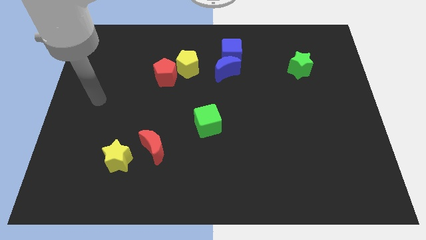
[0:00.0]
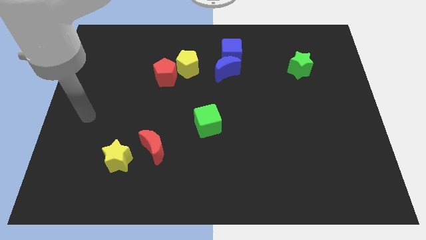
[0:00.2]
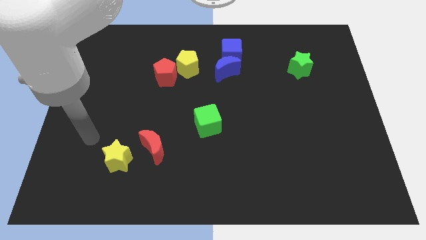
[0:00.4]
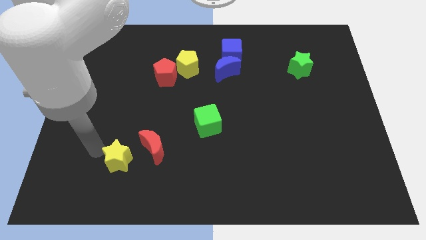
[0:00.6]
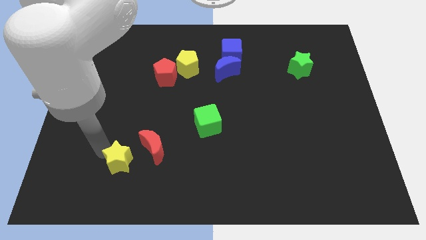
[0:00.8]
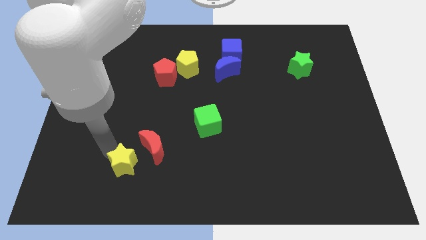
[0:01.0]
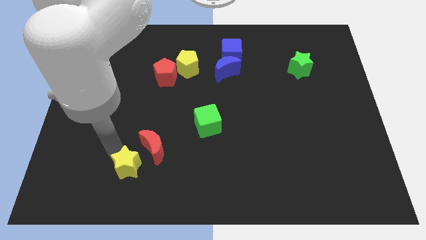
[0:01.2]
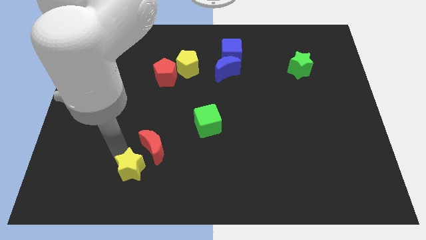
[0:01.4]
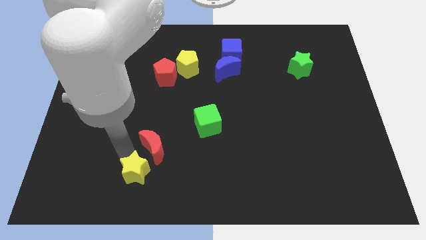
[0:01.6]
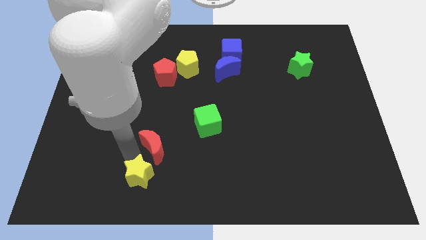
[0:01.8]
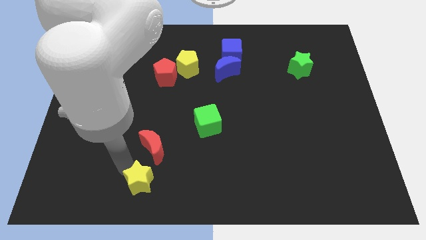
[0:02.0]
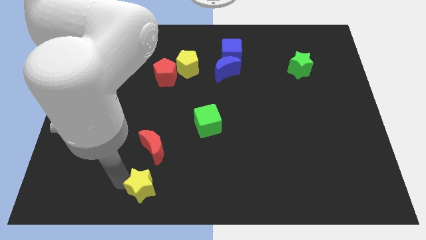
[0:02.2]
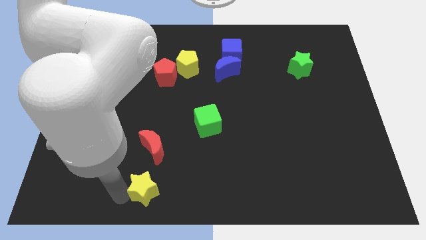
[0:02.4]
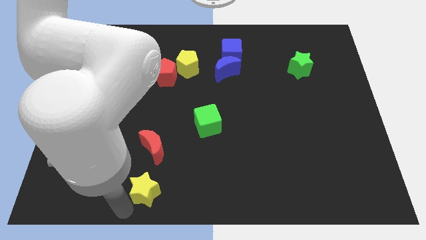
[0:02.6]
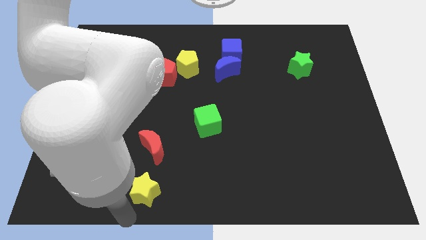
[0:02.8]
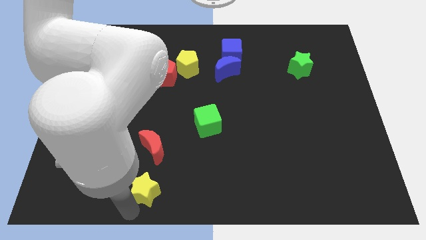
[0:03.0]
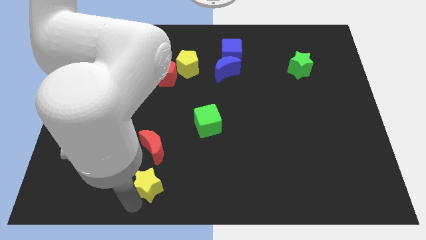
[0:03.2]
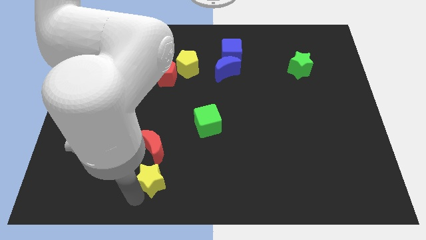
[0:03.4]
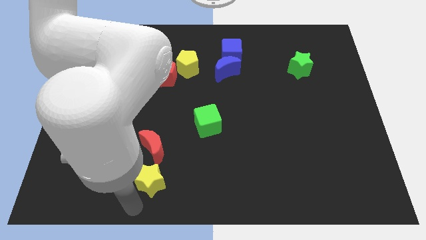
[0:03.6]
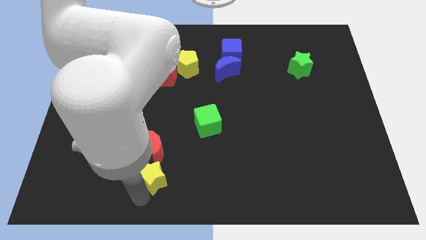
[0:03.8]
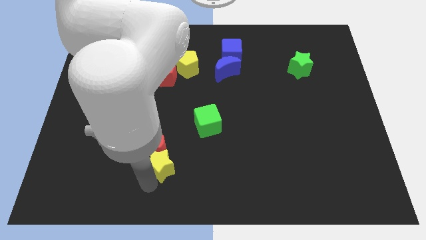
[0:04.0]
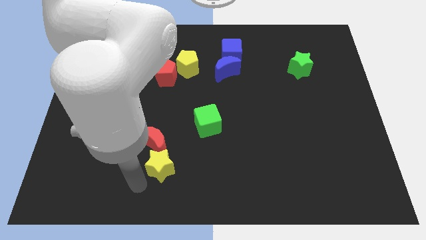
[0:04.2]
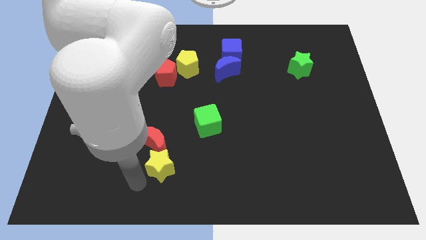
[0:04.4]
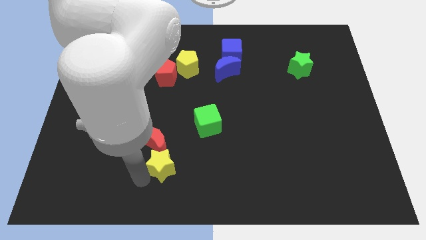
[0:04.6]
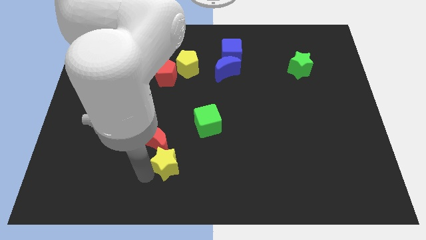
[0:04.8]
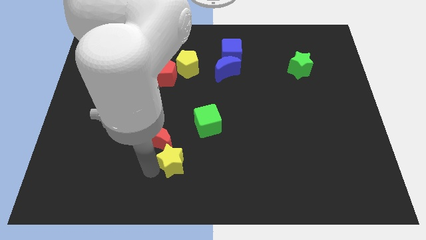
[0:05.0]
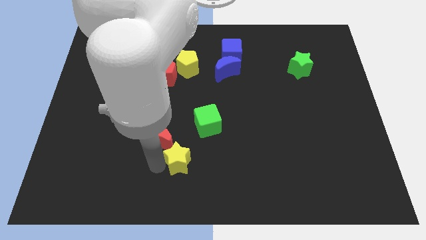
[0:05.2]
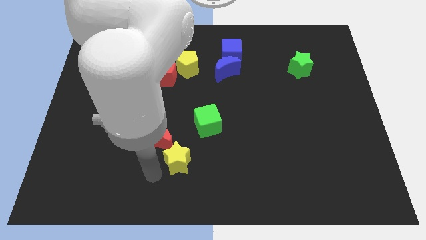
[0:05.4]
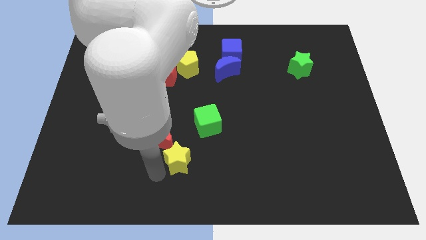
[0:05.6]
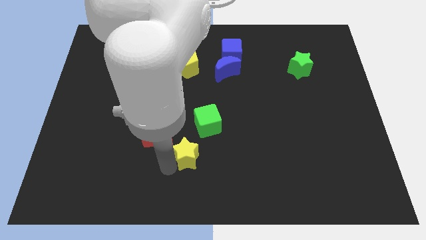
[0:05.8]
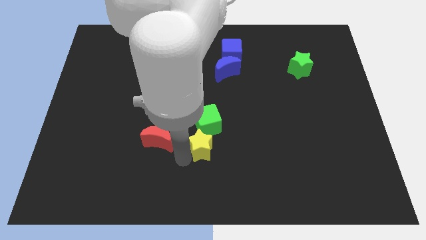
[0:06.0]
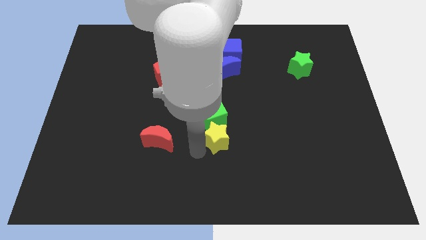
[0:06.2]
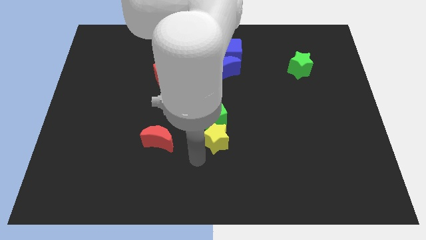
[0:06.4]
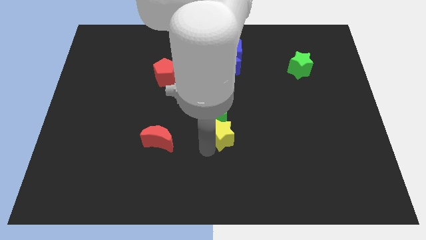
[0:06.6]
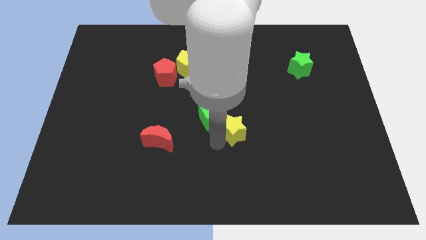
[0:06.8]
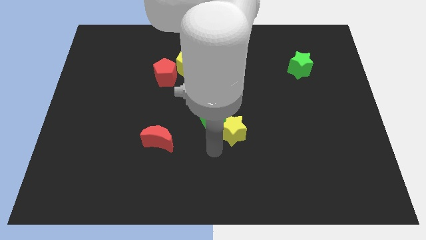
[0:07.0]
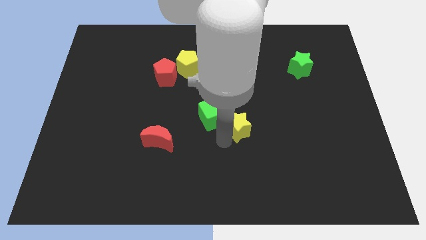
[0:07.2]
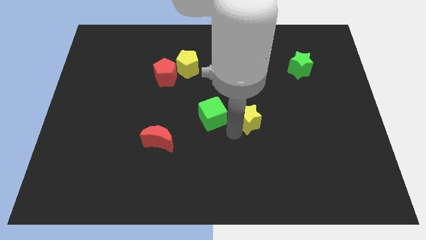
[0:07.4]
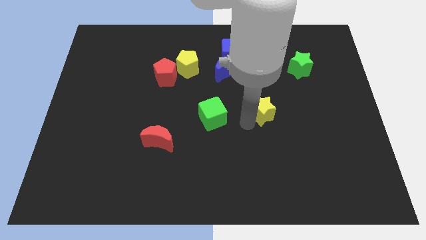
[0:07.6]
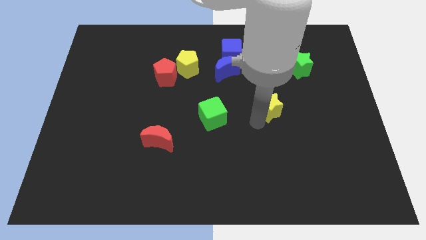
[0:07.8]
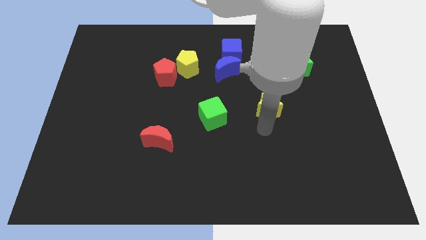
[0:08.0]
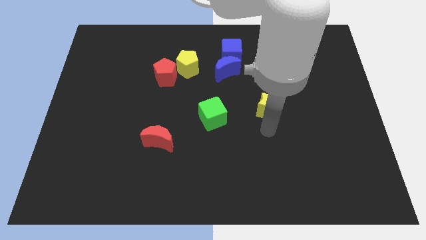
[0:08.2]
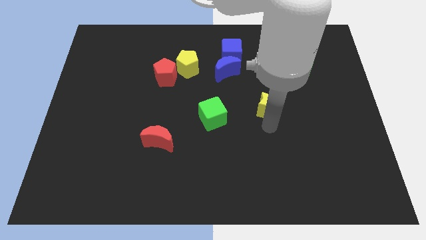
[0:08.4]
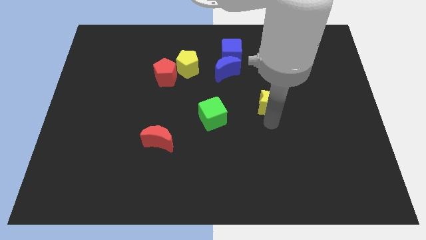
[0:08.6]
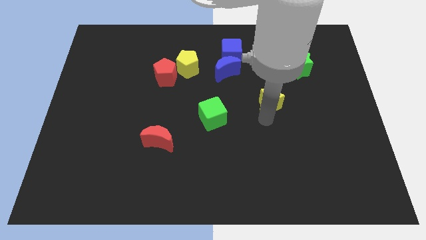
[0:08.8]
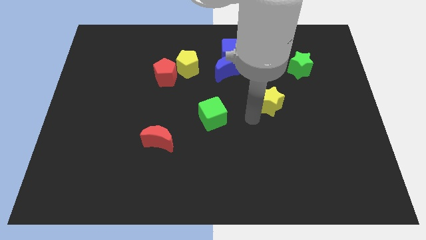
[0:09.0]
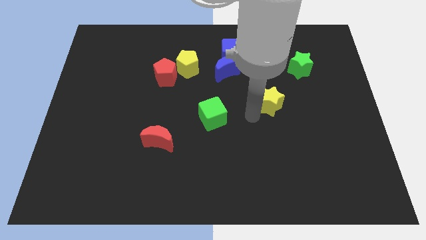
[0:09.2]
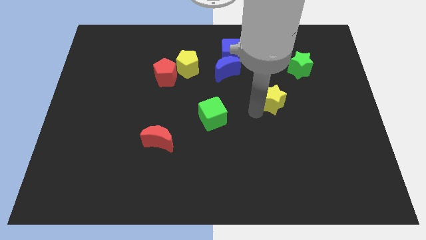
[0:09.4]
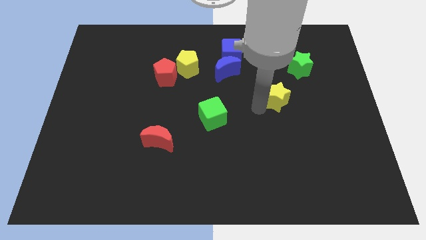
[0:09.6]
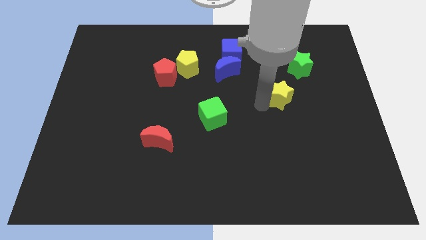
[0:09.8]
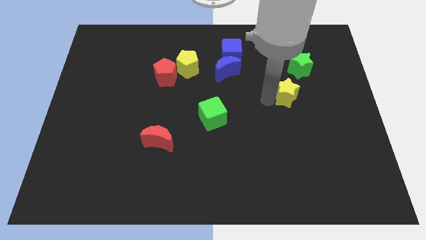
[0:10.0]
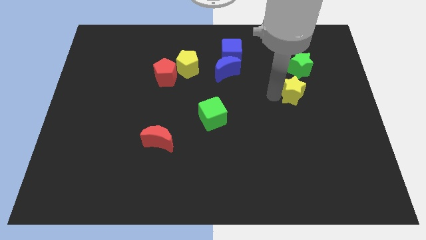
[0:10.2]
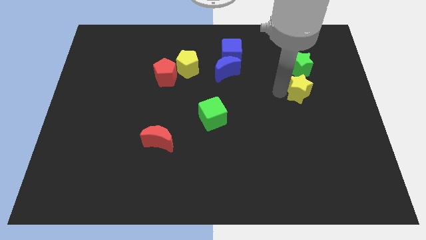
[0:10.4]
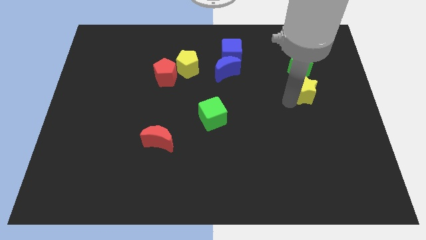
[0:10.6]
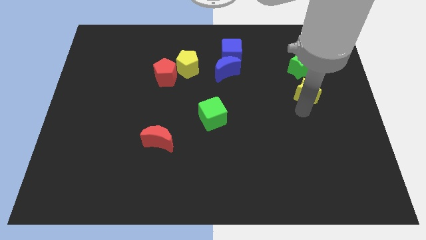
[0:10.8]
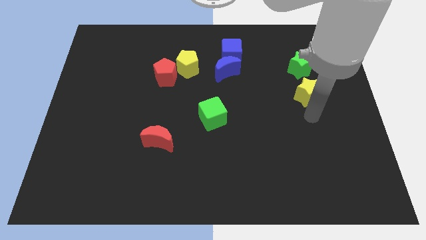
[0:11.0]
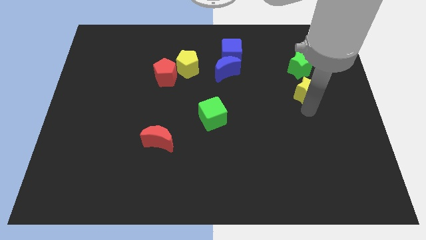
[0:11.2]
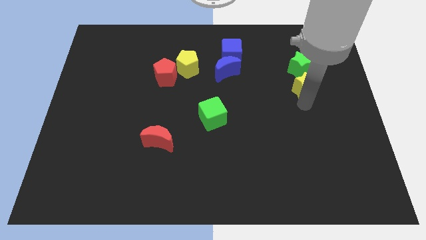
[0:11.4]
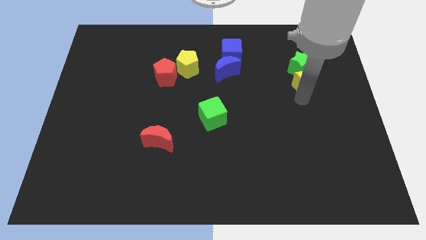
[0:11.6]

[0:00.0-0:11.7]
push the yellow star to the green star

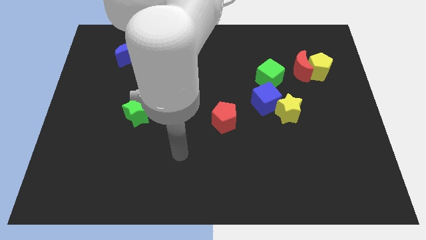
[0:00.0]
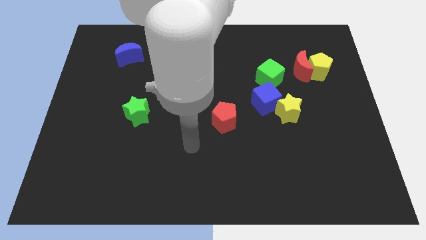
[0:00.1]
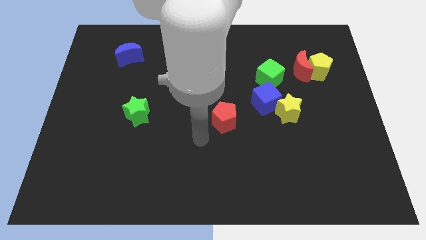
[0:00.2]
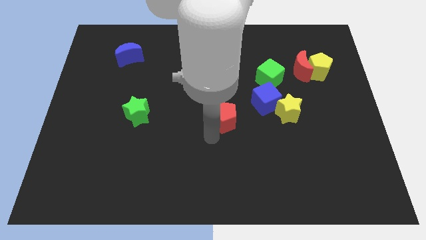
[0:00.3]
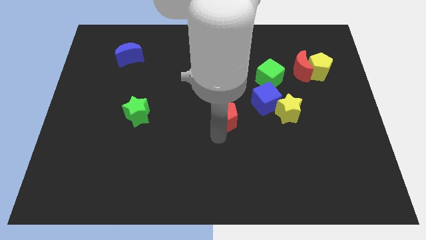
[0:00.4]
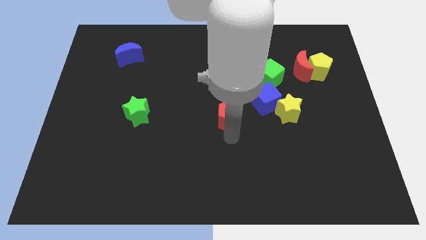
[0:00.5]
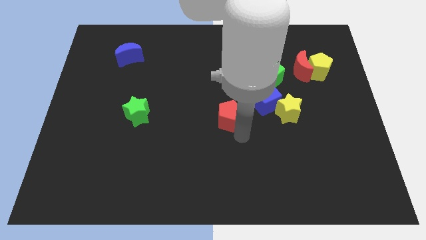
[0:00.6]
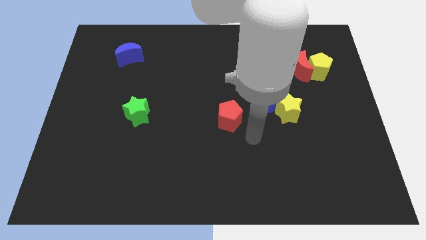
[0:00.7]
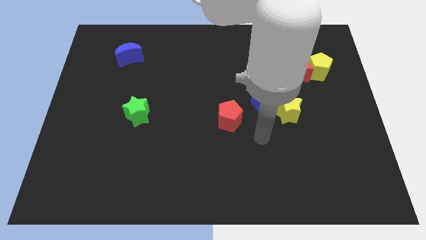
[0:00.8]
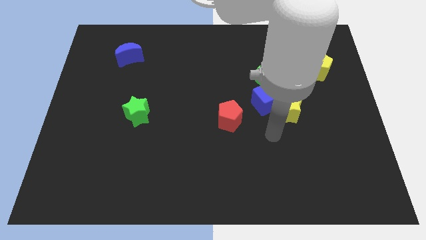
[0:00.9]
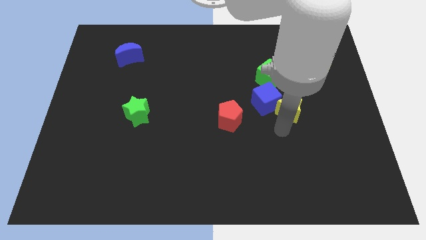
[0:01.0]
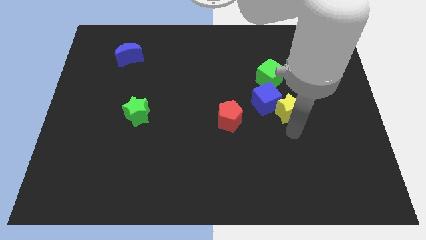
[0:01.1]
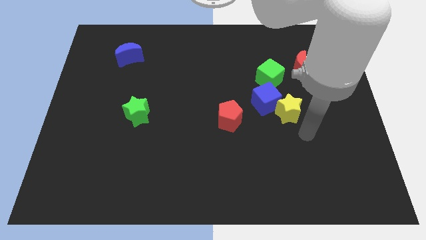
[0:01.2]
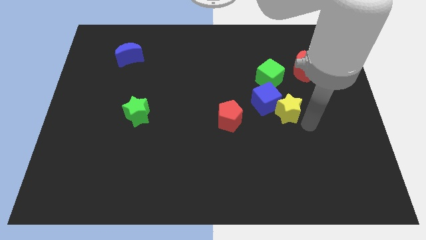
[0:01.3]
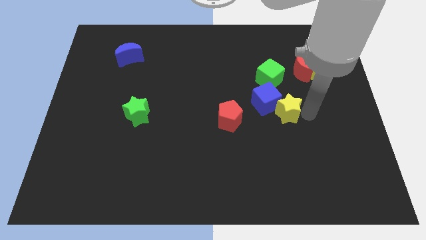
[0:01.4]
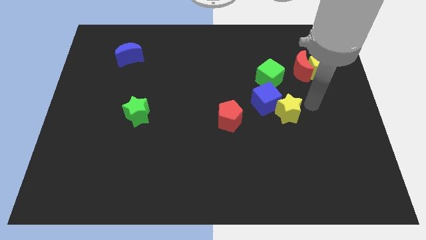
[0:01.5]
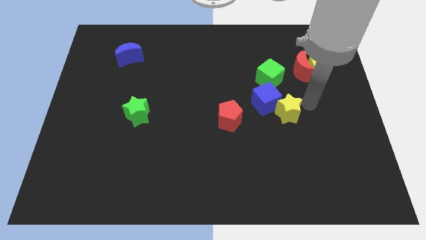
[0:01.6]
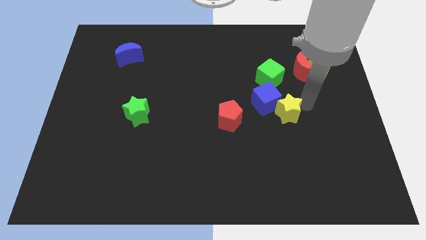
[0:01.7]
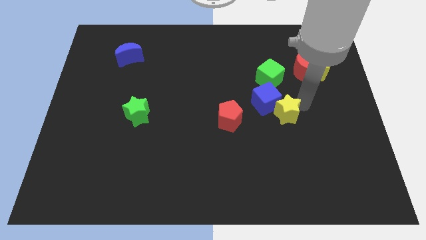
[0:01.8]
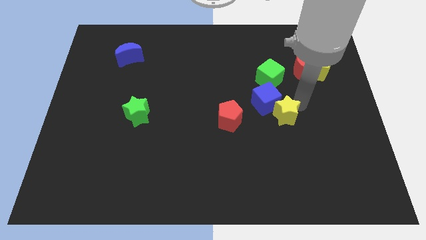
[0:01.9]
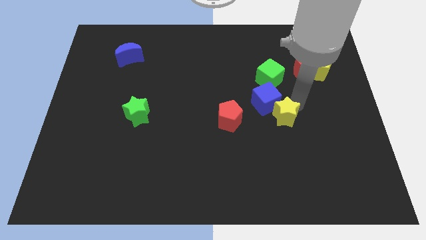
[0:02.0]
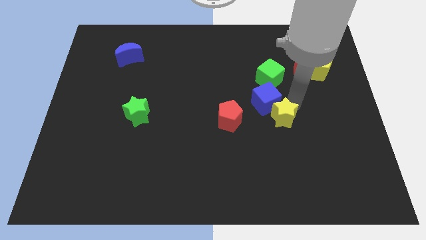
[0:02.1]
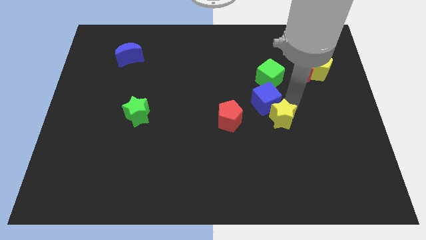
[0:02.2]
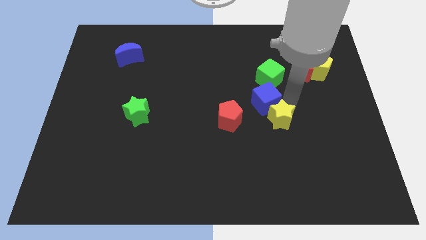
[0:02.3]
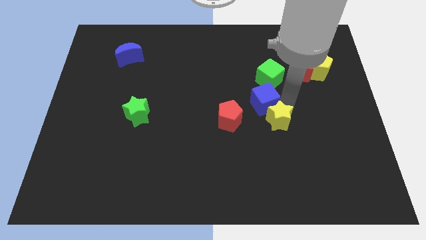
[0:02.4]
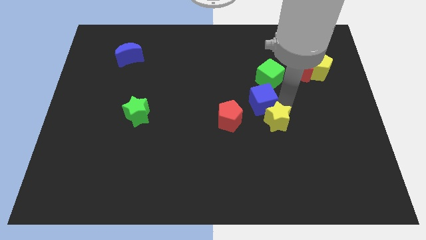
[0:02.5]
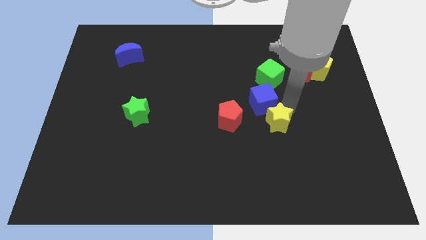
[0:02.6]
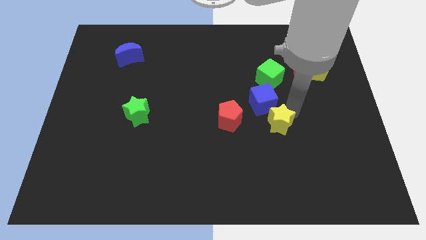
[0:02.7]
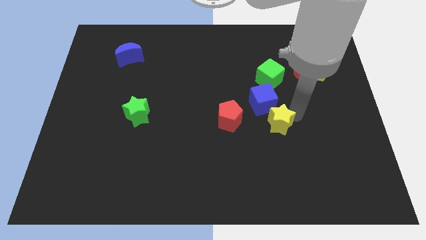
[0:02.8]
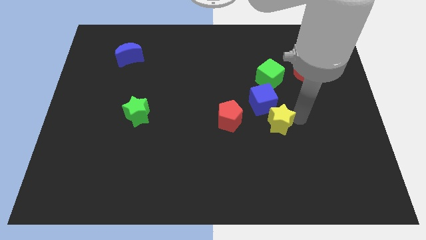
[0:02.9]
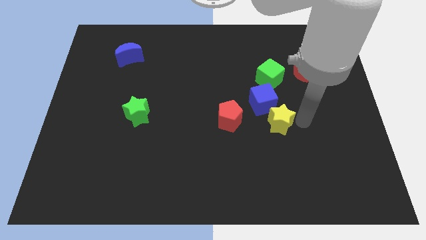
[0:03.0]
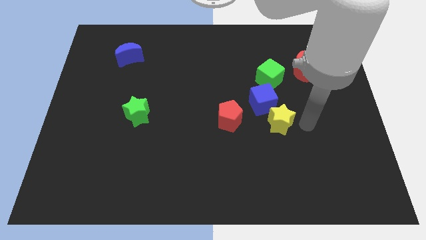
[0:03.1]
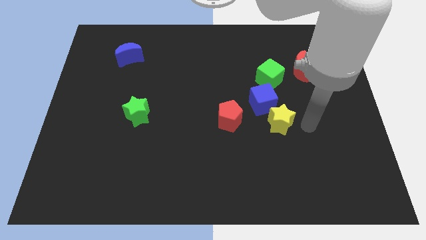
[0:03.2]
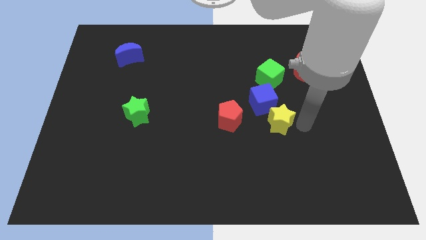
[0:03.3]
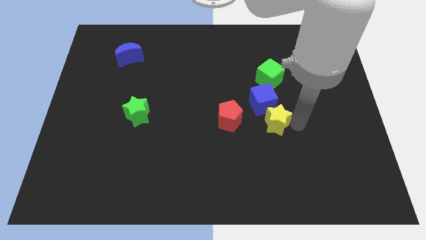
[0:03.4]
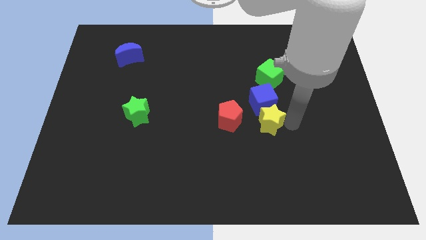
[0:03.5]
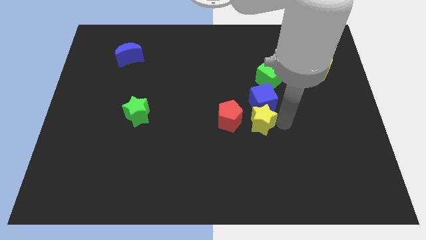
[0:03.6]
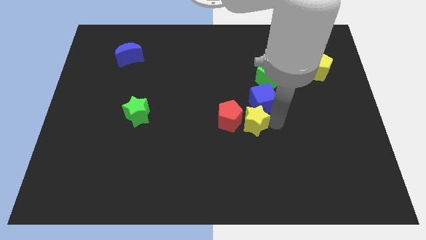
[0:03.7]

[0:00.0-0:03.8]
push the yellow star to the red pentagon
